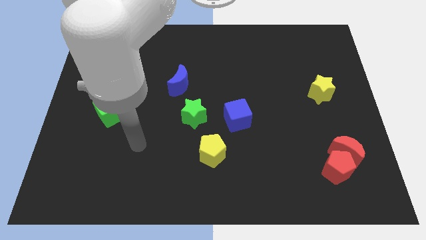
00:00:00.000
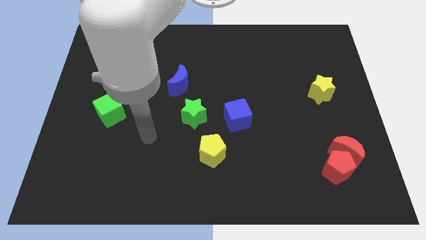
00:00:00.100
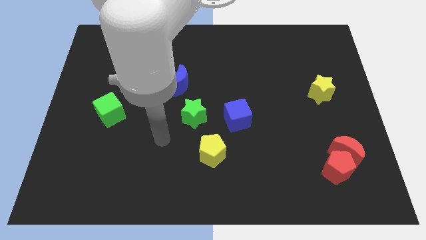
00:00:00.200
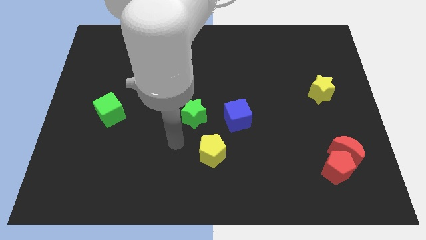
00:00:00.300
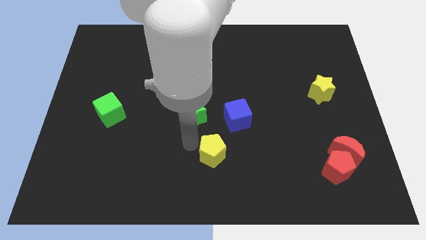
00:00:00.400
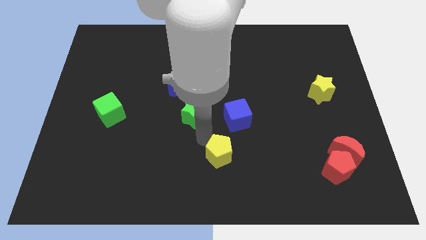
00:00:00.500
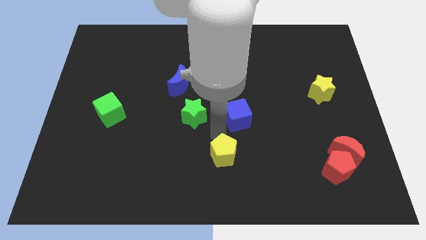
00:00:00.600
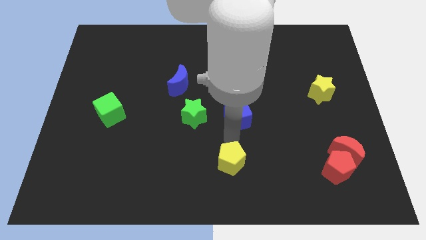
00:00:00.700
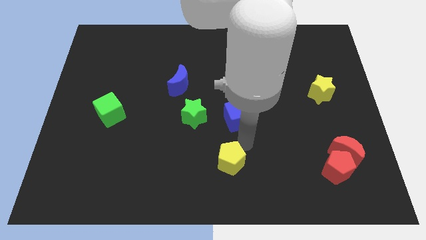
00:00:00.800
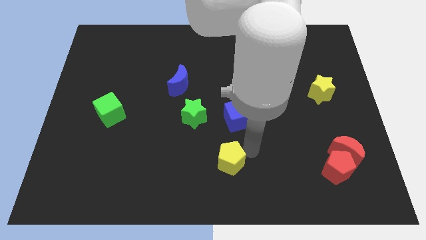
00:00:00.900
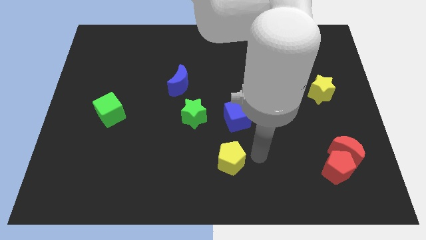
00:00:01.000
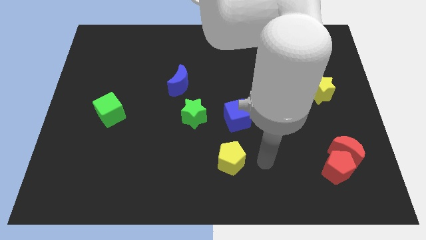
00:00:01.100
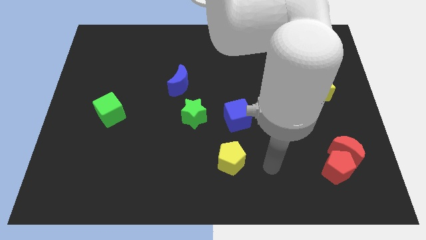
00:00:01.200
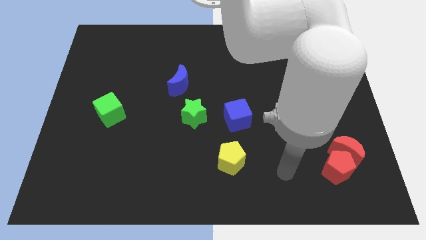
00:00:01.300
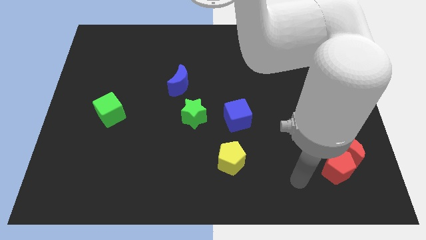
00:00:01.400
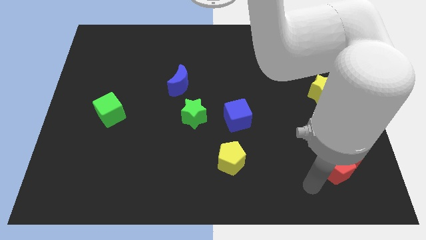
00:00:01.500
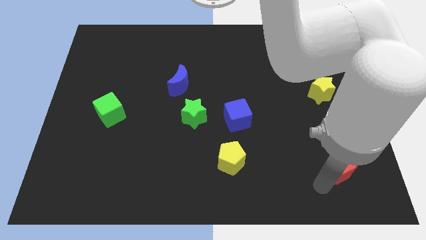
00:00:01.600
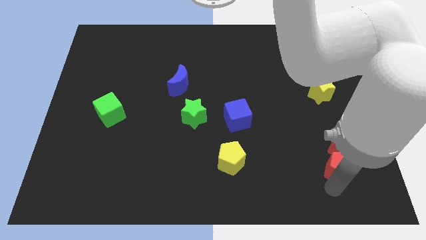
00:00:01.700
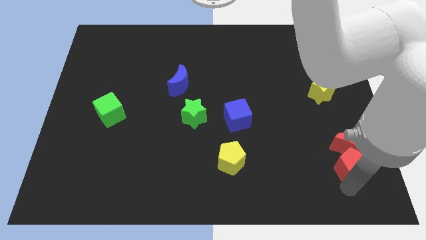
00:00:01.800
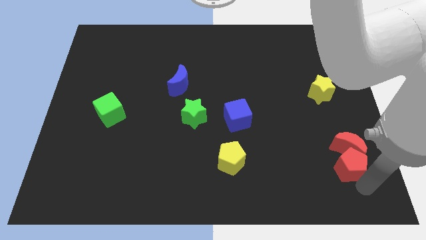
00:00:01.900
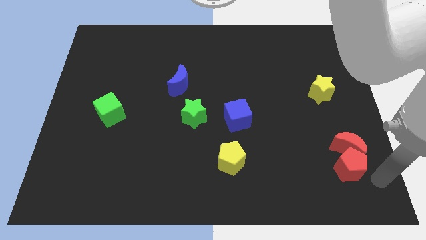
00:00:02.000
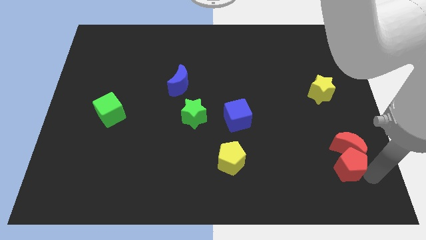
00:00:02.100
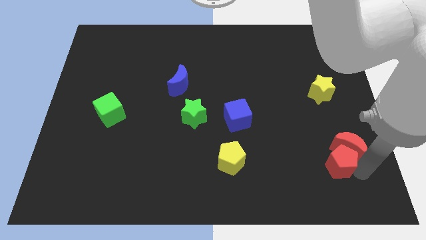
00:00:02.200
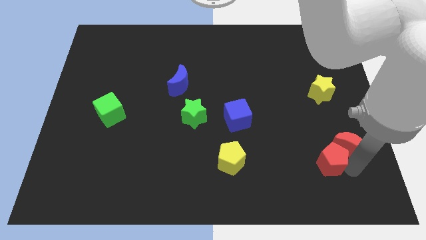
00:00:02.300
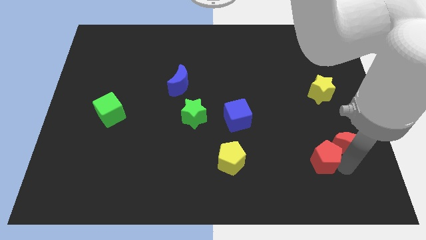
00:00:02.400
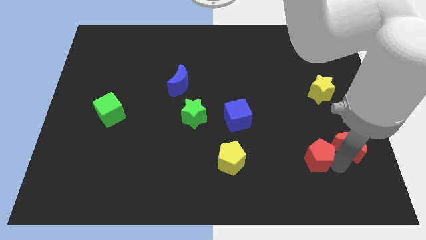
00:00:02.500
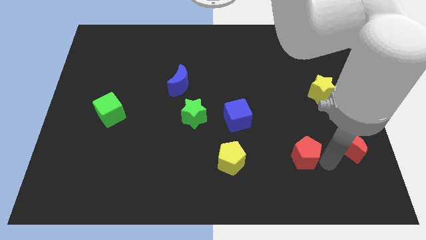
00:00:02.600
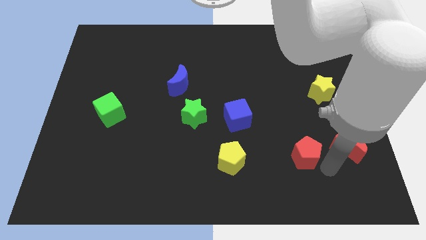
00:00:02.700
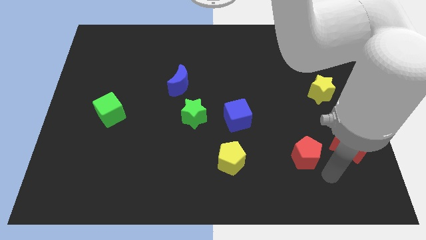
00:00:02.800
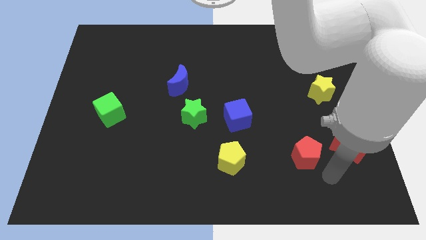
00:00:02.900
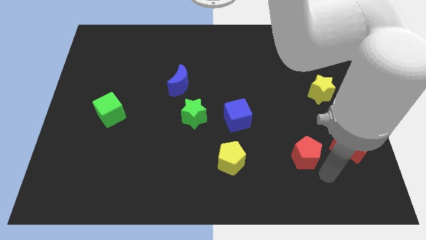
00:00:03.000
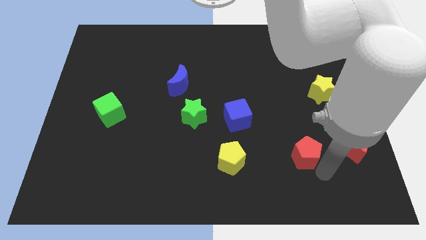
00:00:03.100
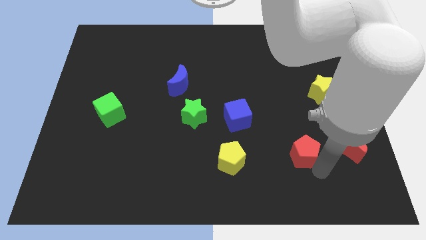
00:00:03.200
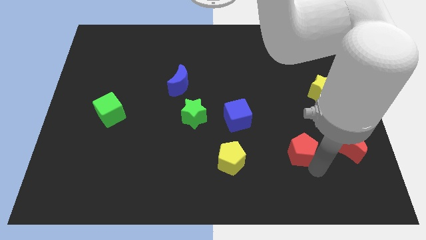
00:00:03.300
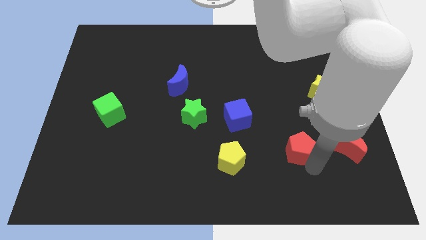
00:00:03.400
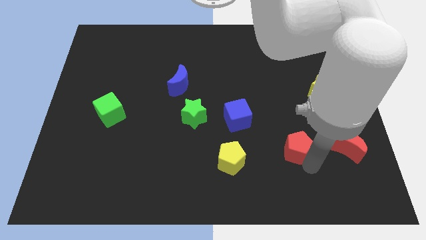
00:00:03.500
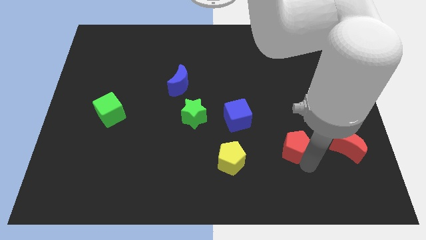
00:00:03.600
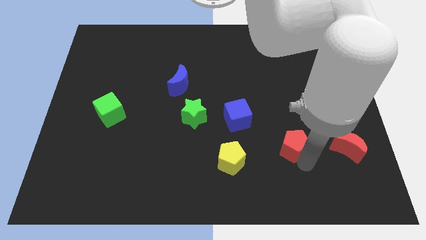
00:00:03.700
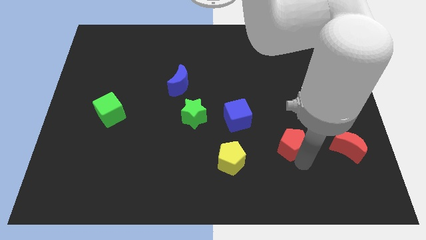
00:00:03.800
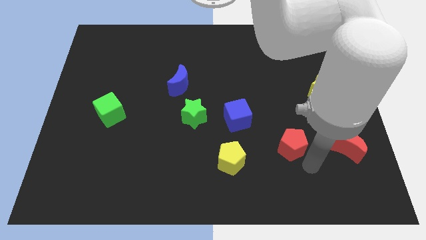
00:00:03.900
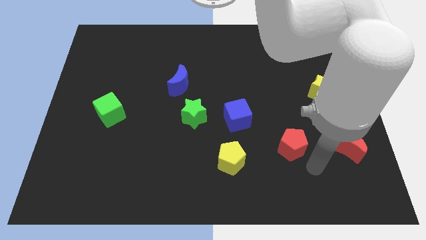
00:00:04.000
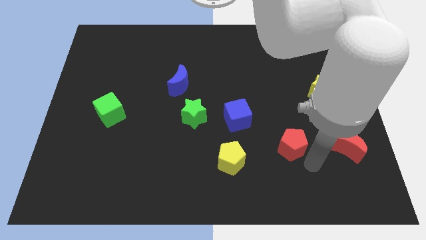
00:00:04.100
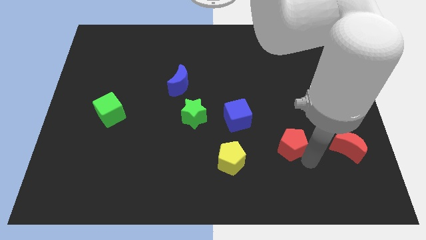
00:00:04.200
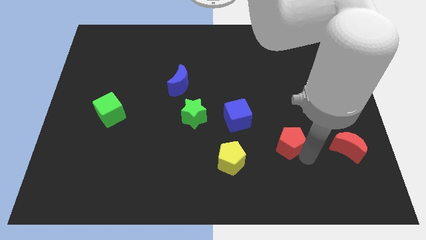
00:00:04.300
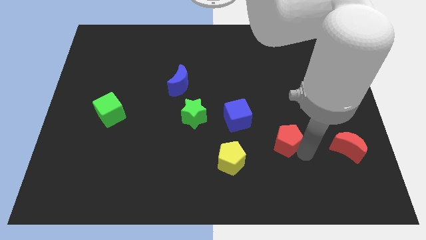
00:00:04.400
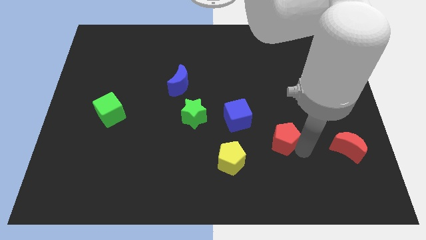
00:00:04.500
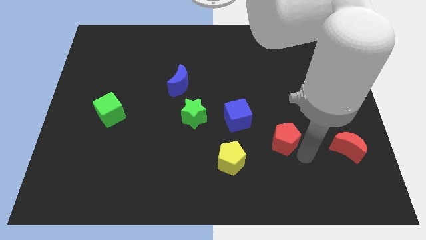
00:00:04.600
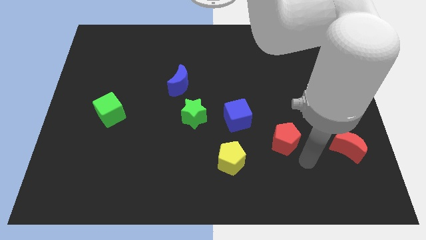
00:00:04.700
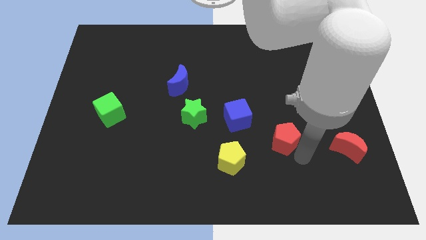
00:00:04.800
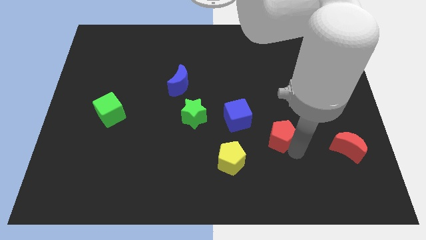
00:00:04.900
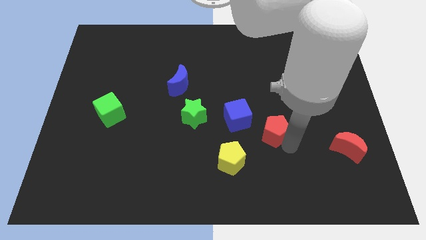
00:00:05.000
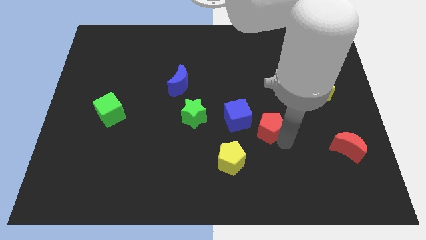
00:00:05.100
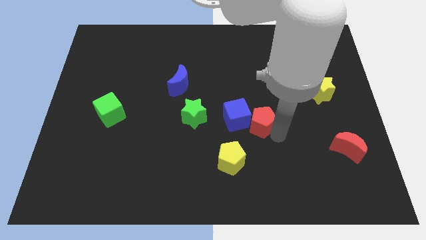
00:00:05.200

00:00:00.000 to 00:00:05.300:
push the red pentagon just right of the green star

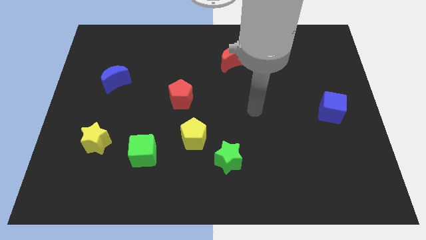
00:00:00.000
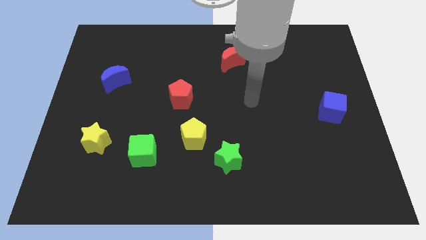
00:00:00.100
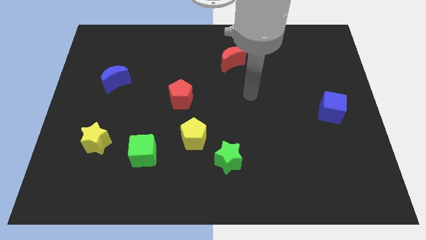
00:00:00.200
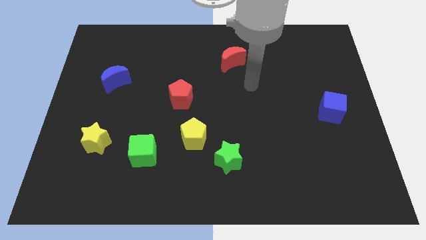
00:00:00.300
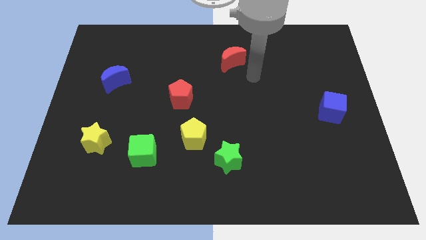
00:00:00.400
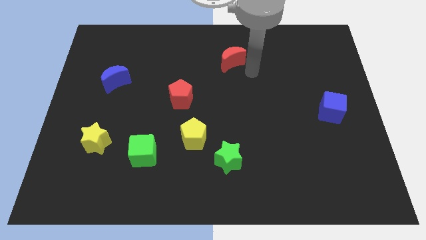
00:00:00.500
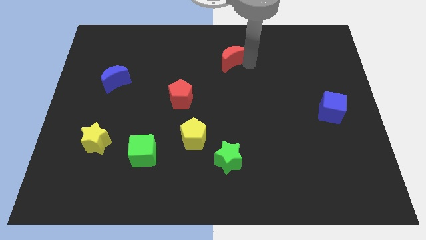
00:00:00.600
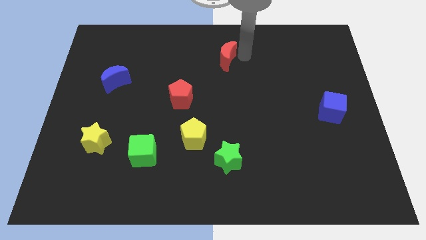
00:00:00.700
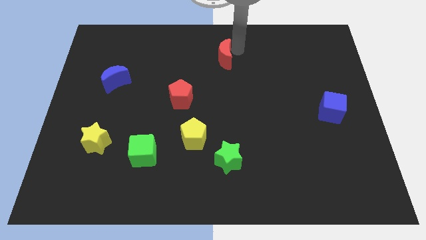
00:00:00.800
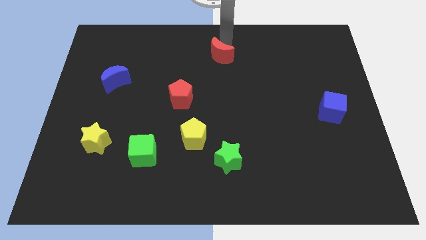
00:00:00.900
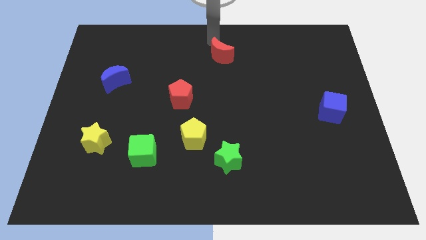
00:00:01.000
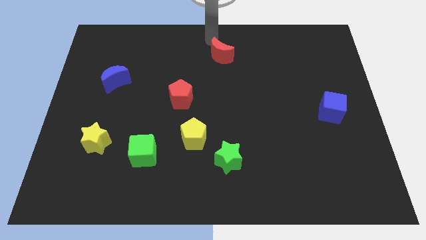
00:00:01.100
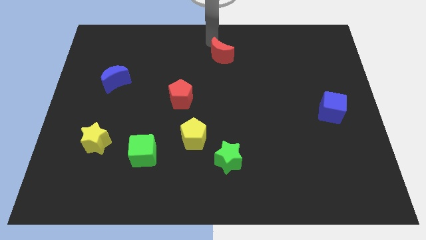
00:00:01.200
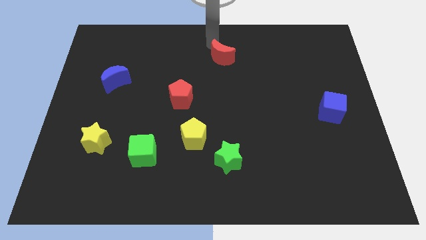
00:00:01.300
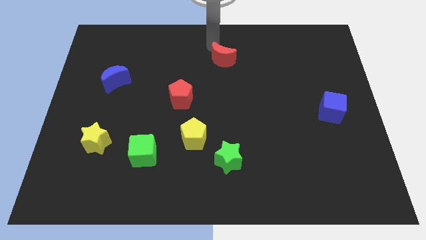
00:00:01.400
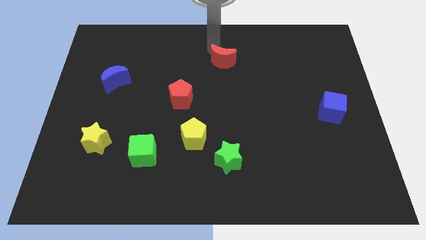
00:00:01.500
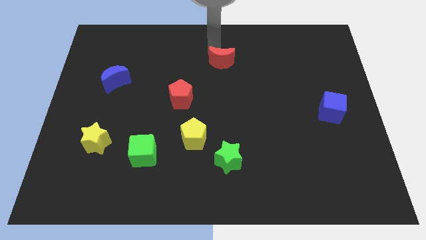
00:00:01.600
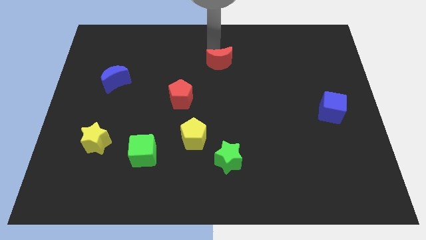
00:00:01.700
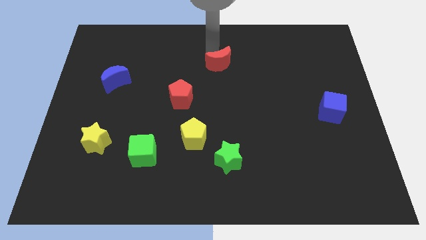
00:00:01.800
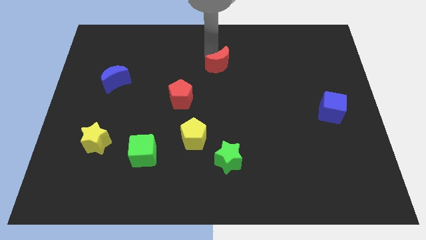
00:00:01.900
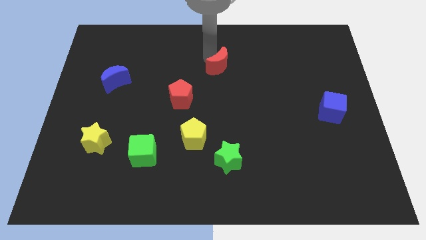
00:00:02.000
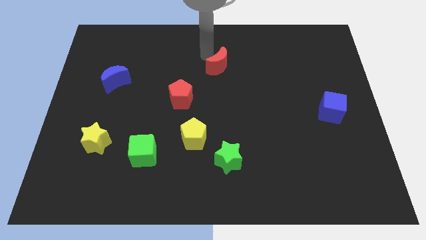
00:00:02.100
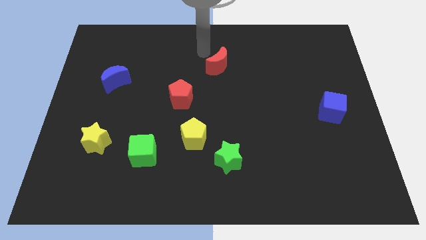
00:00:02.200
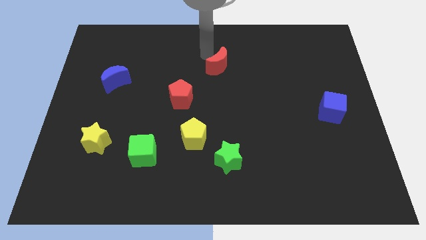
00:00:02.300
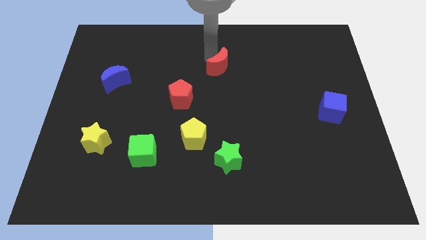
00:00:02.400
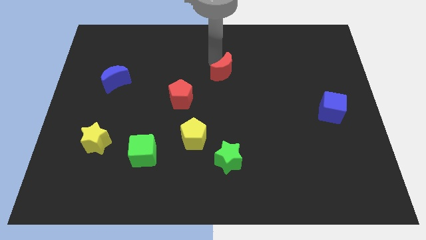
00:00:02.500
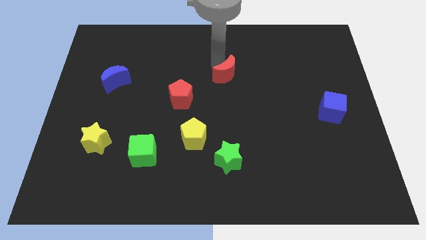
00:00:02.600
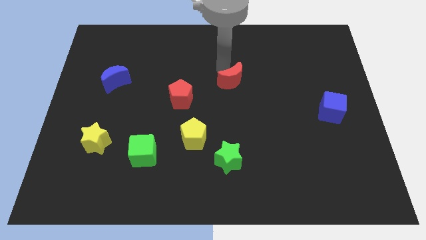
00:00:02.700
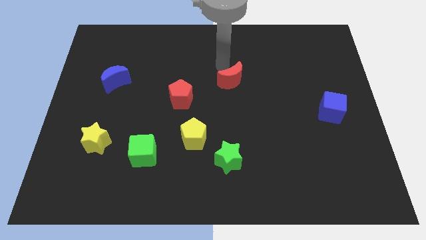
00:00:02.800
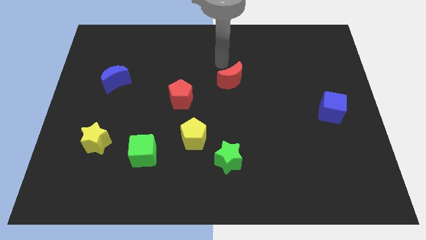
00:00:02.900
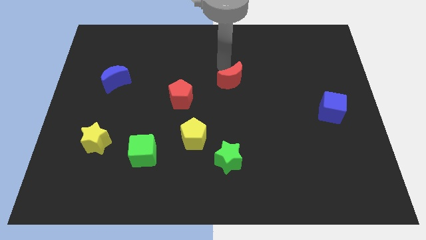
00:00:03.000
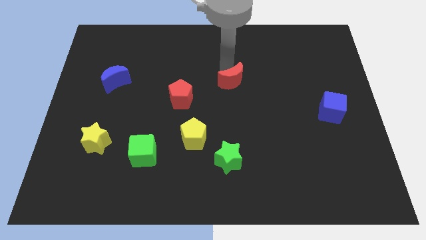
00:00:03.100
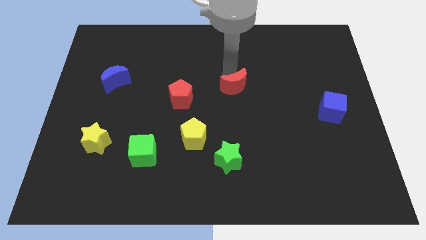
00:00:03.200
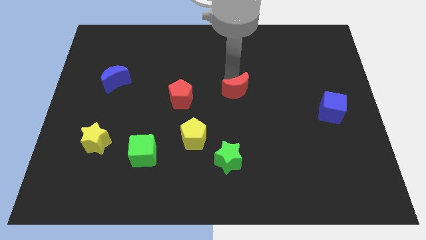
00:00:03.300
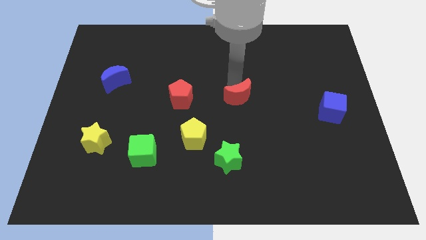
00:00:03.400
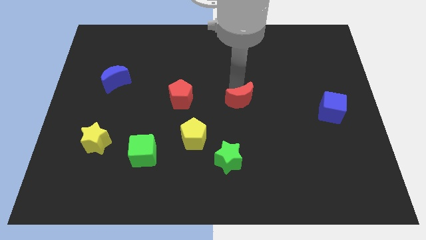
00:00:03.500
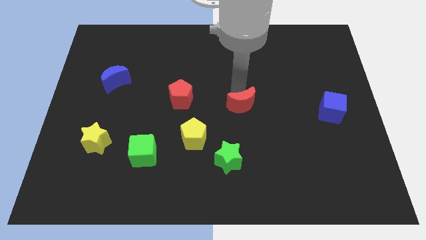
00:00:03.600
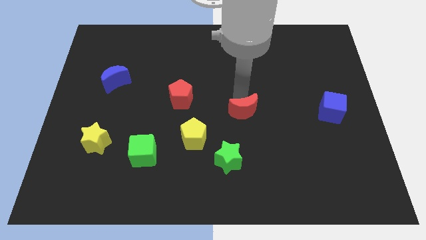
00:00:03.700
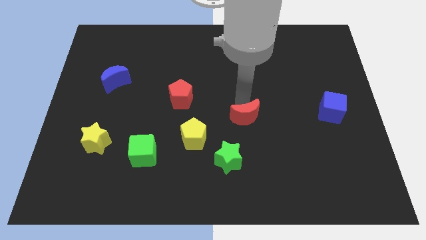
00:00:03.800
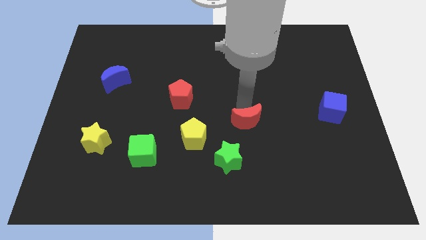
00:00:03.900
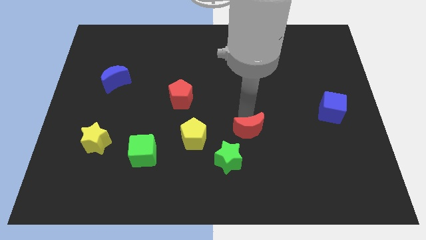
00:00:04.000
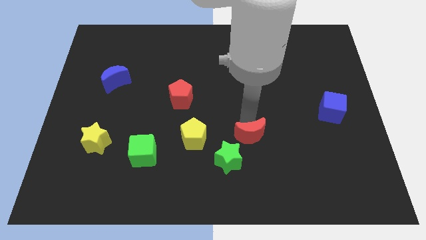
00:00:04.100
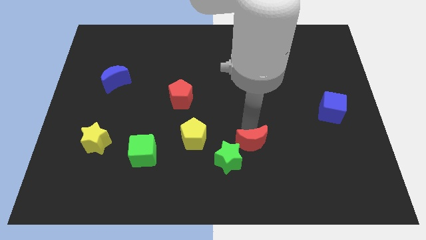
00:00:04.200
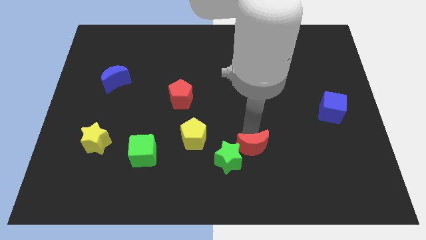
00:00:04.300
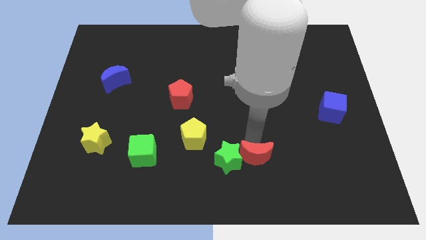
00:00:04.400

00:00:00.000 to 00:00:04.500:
slide the red moon to the bottom right side of the green star
